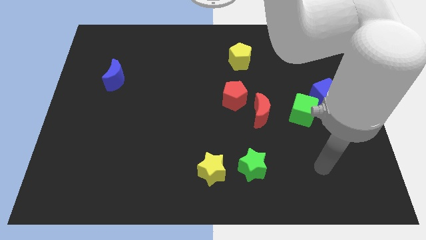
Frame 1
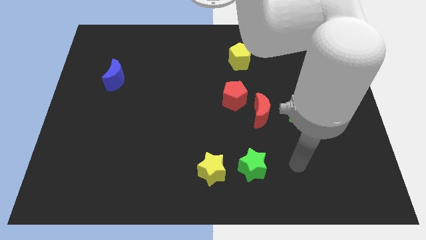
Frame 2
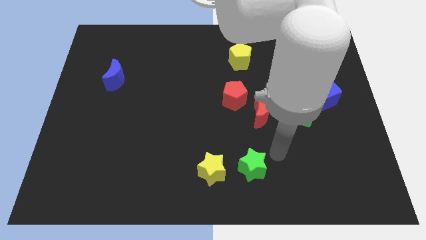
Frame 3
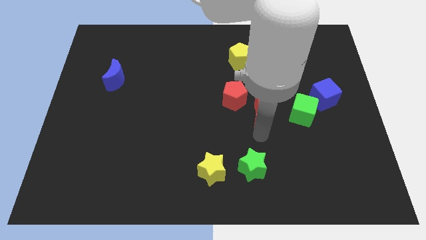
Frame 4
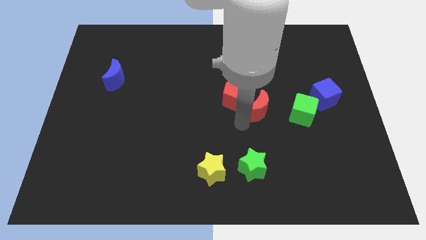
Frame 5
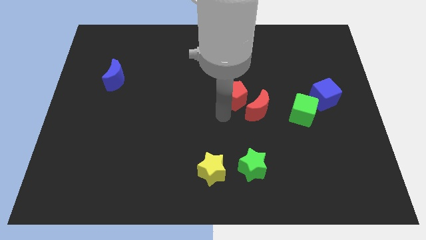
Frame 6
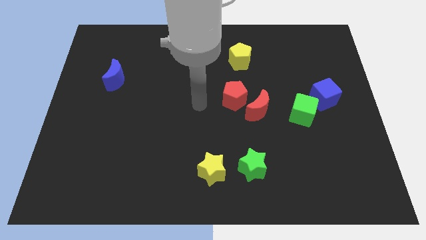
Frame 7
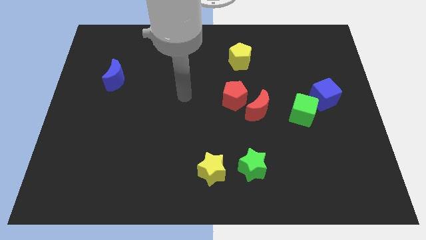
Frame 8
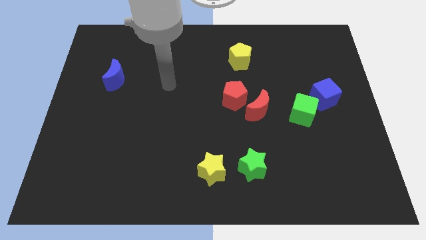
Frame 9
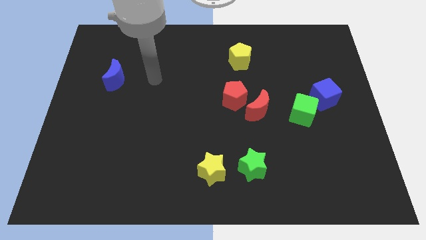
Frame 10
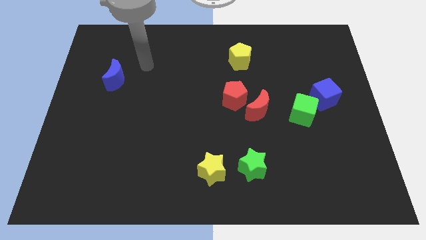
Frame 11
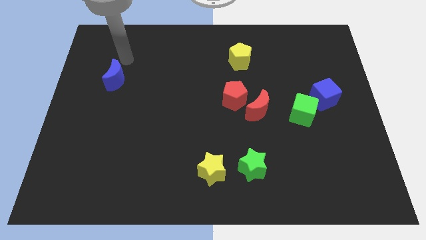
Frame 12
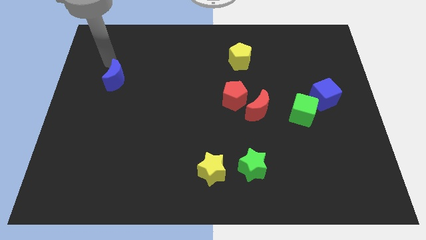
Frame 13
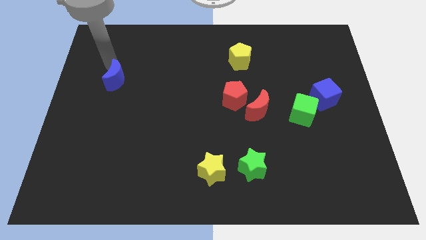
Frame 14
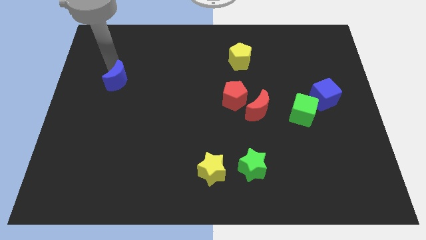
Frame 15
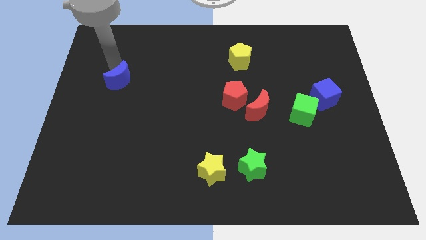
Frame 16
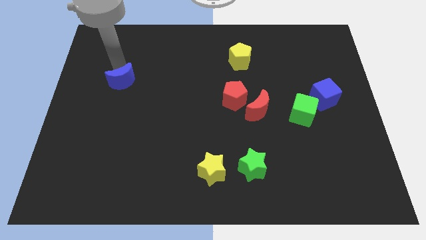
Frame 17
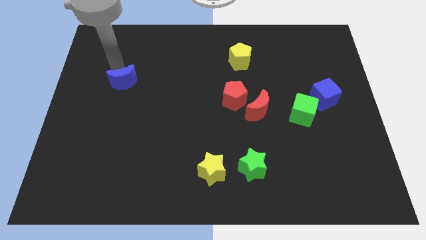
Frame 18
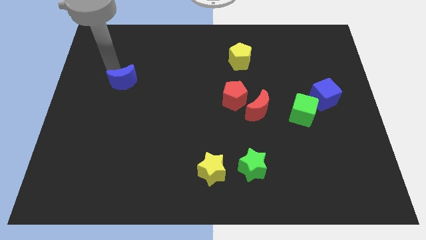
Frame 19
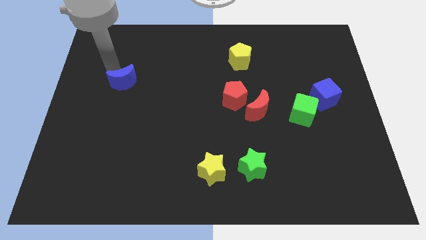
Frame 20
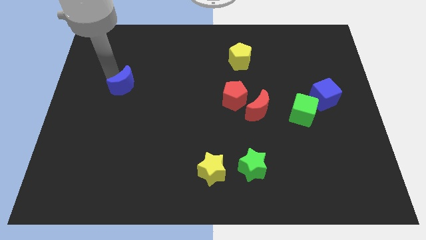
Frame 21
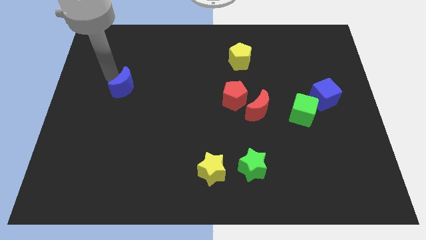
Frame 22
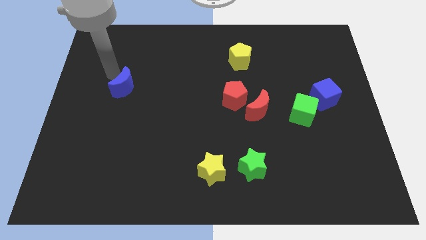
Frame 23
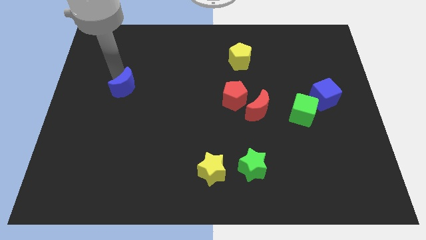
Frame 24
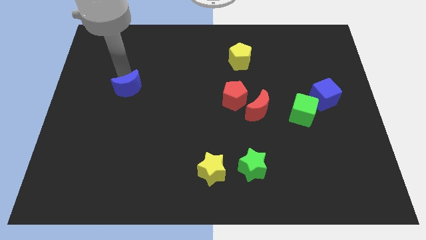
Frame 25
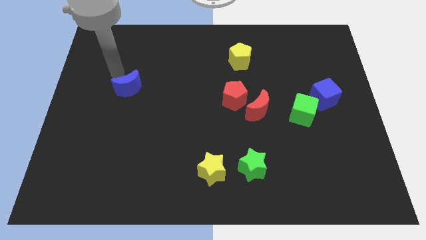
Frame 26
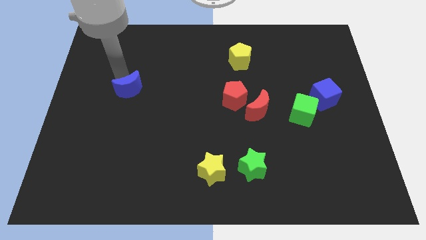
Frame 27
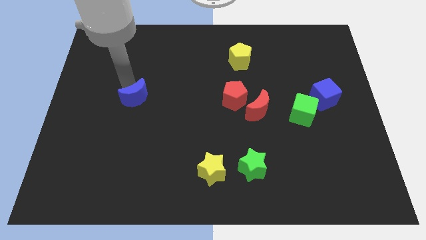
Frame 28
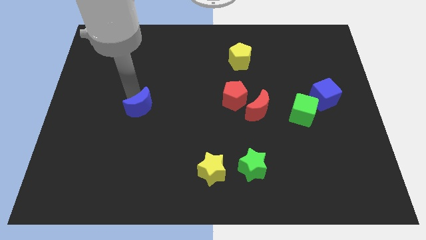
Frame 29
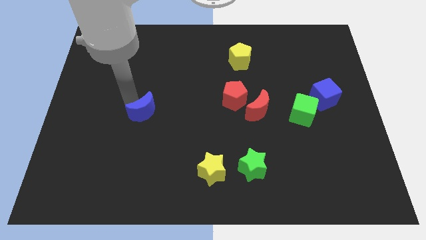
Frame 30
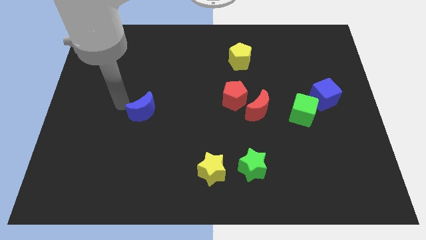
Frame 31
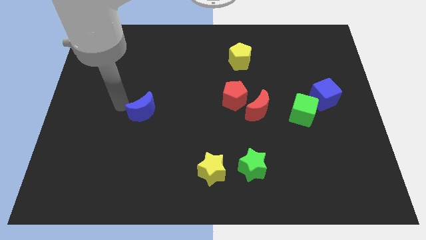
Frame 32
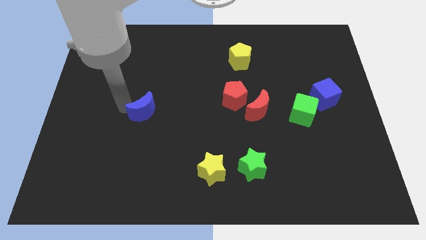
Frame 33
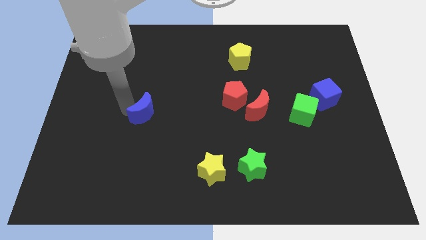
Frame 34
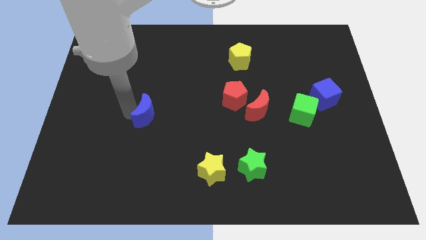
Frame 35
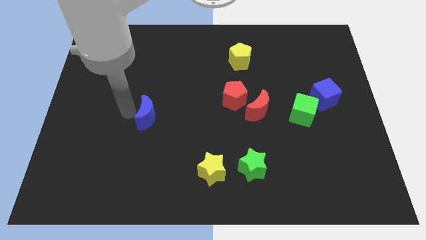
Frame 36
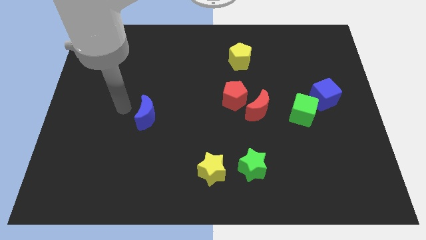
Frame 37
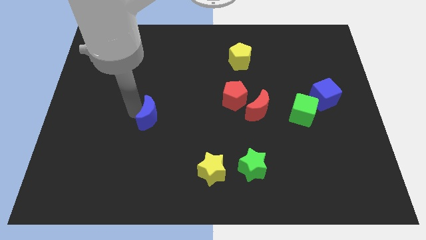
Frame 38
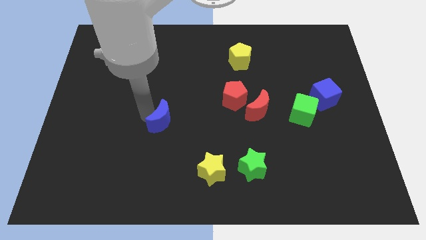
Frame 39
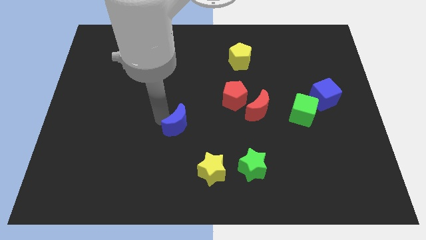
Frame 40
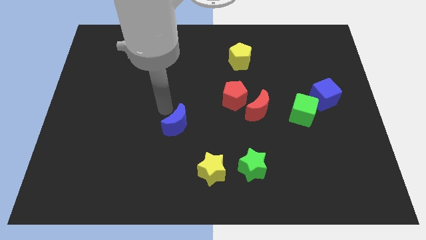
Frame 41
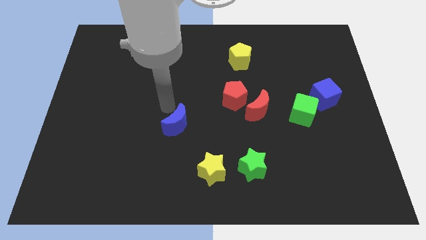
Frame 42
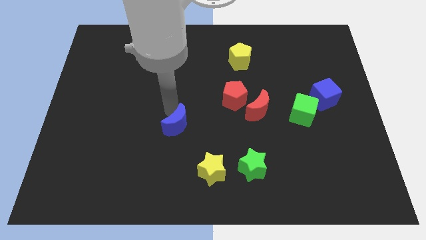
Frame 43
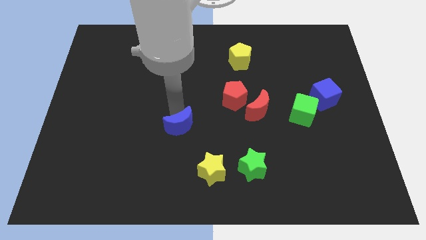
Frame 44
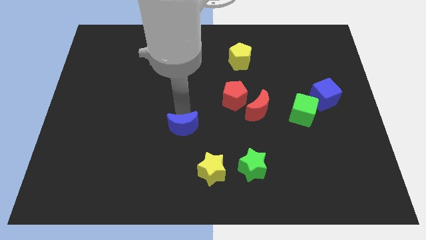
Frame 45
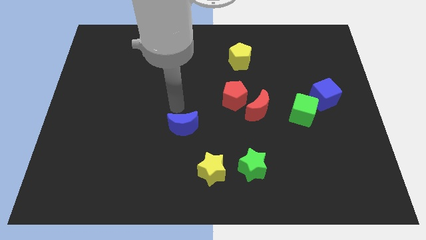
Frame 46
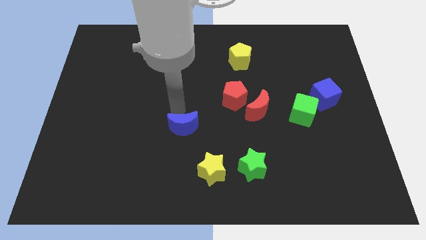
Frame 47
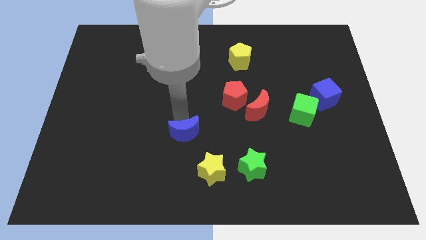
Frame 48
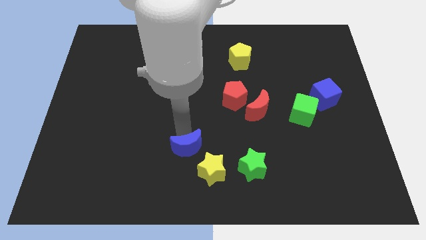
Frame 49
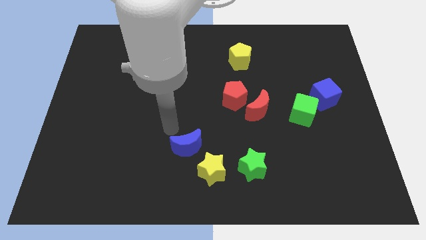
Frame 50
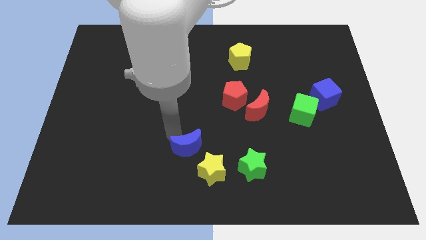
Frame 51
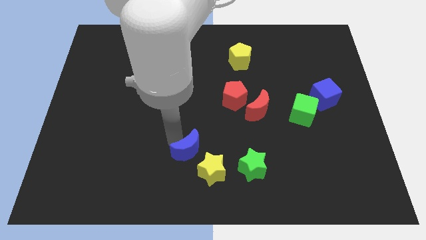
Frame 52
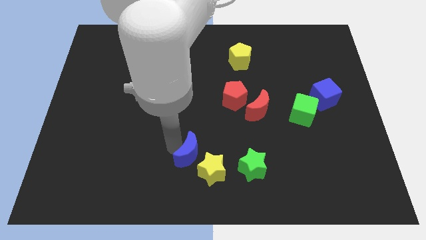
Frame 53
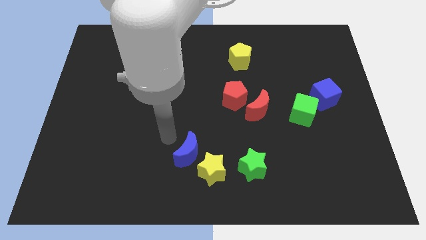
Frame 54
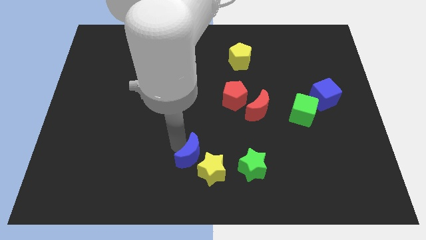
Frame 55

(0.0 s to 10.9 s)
put the blue moon towards the yellow star

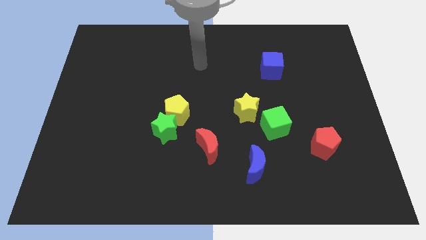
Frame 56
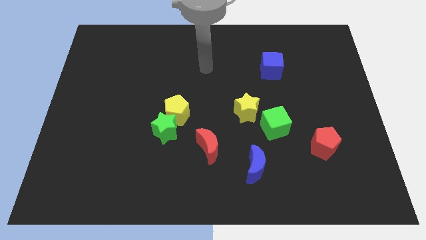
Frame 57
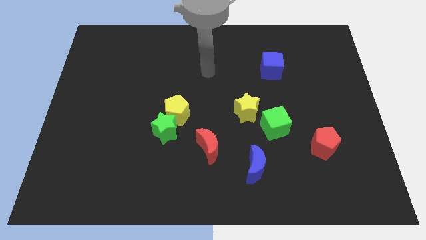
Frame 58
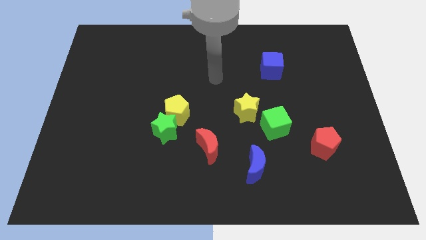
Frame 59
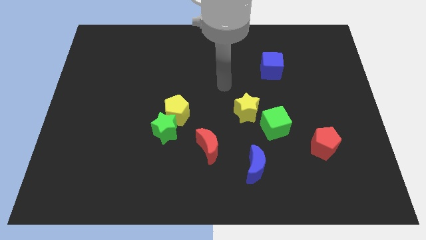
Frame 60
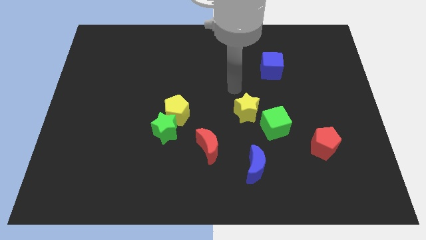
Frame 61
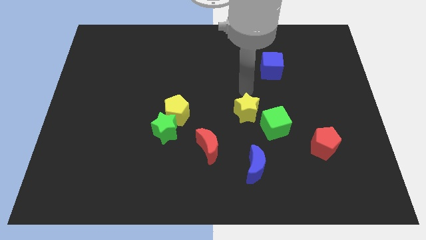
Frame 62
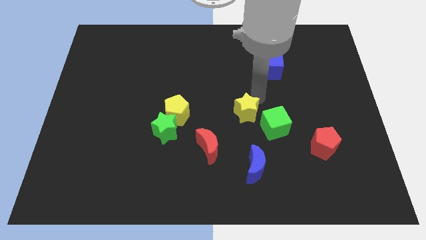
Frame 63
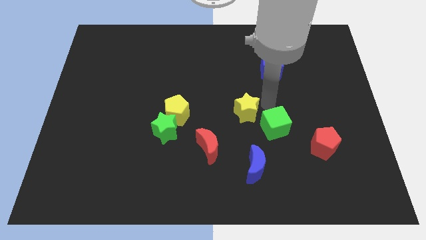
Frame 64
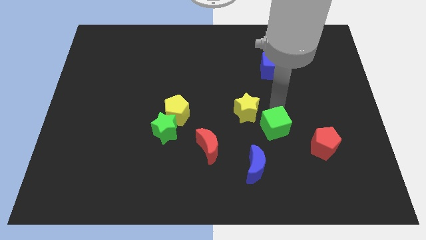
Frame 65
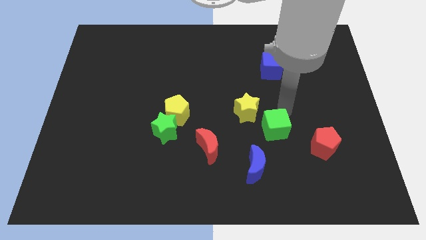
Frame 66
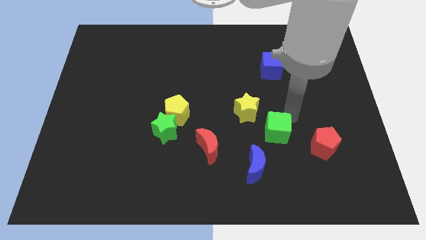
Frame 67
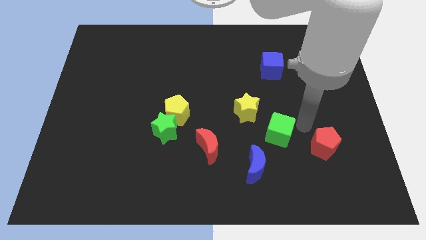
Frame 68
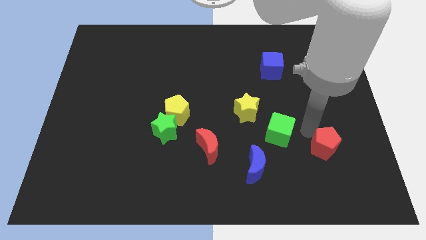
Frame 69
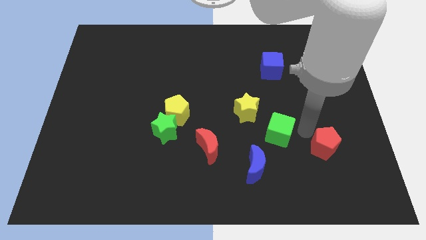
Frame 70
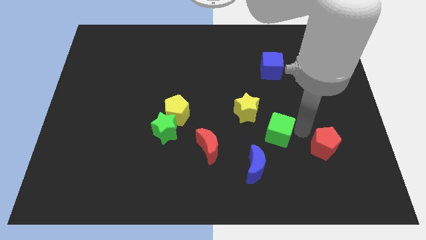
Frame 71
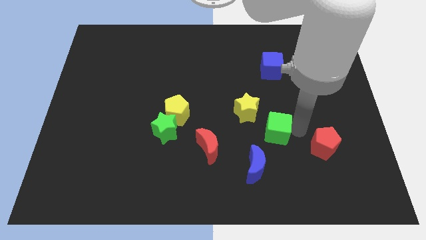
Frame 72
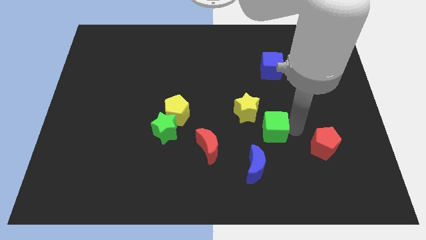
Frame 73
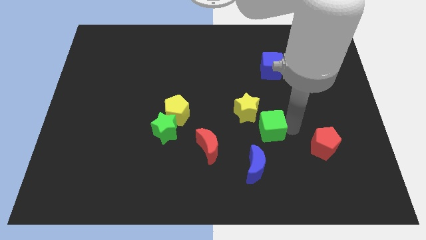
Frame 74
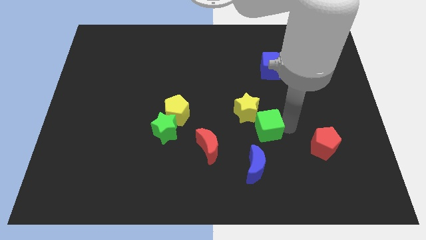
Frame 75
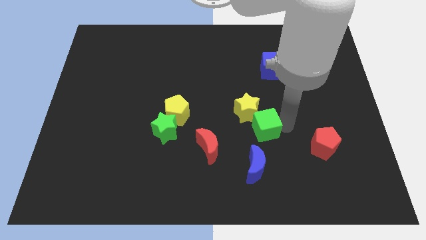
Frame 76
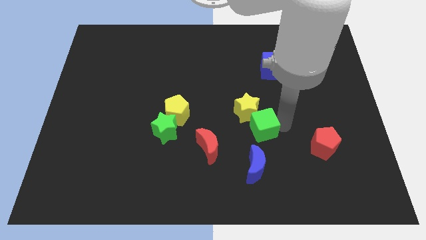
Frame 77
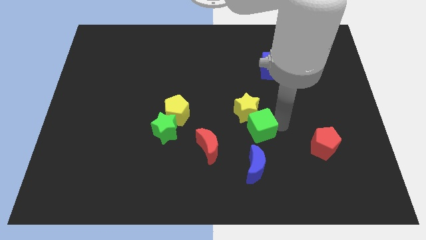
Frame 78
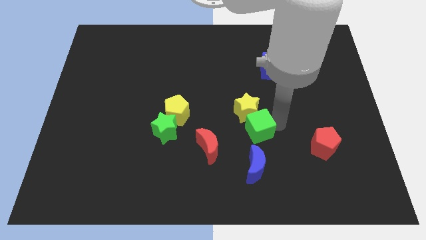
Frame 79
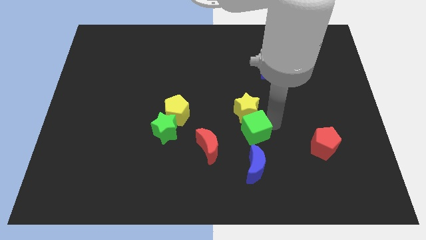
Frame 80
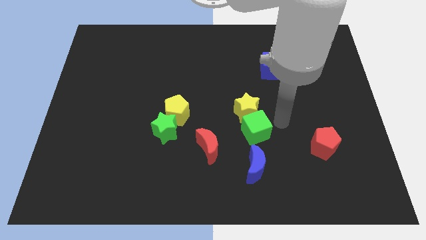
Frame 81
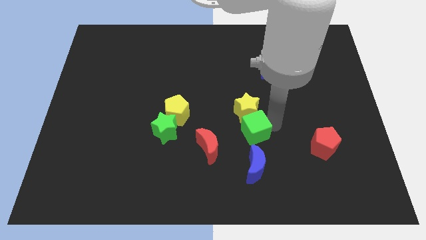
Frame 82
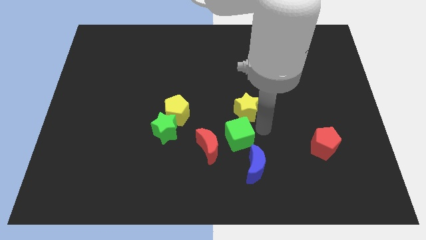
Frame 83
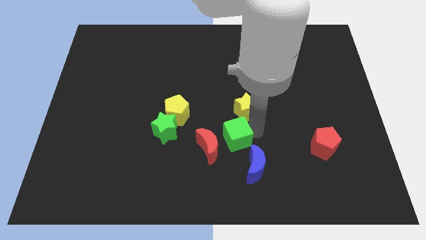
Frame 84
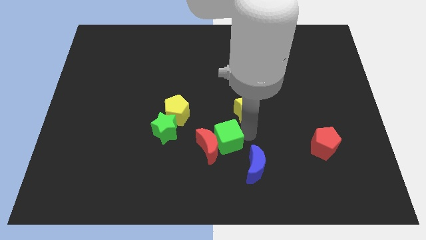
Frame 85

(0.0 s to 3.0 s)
move the green cube next to the red moon
